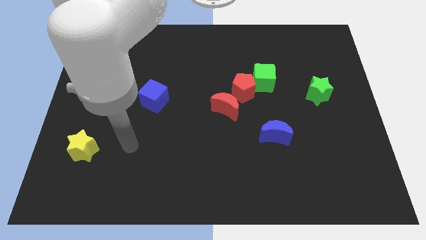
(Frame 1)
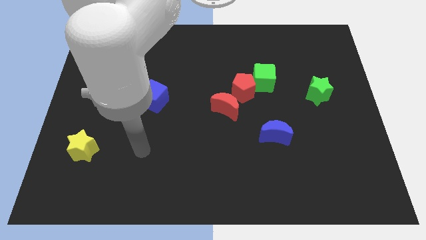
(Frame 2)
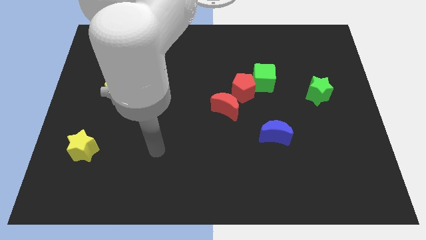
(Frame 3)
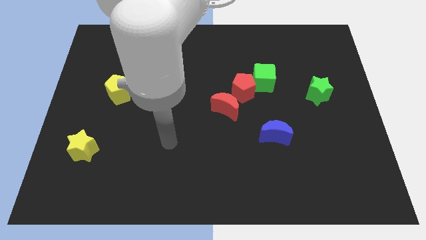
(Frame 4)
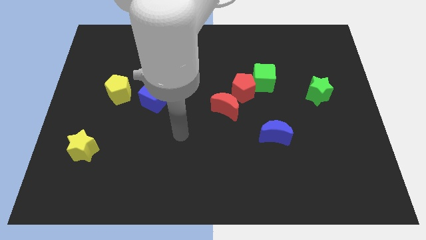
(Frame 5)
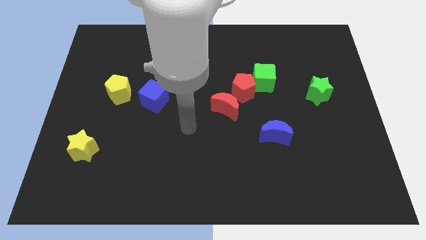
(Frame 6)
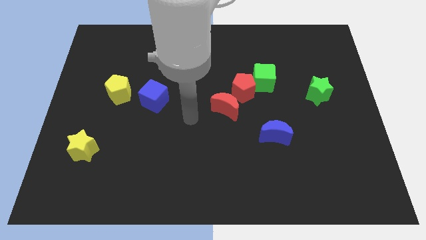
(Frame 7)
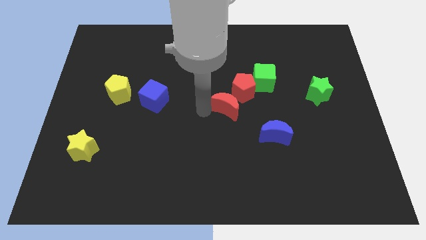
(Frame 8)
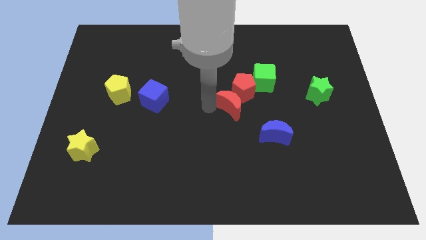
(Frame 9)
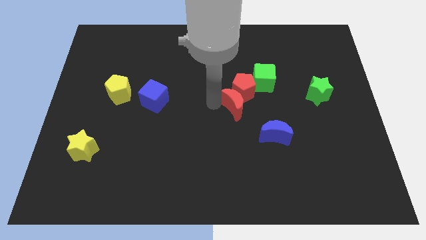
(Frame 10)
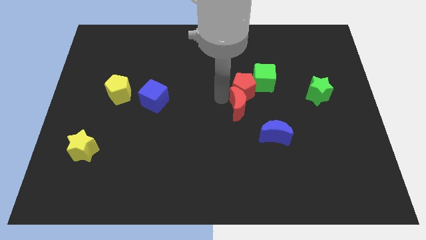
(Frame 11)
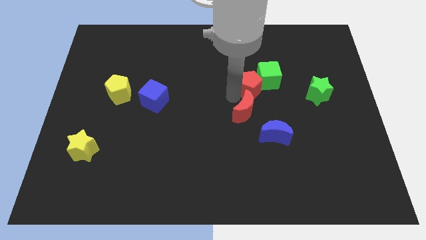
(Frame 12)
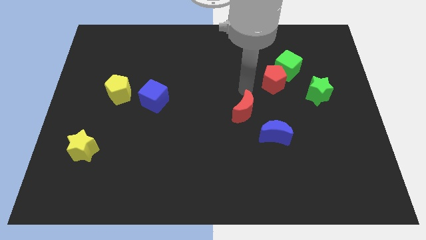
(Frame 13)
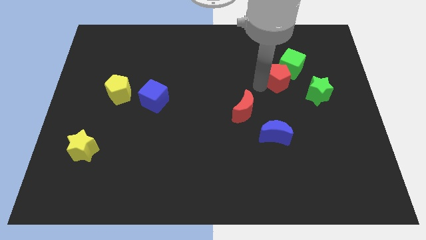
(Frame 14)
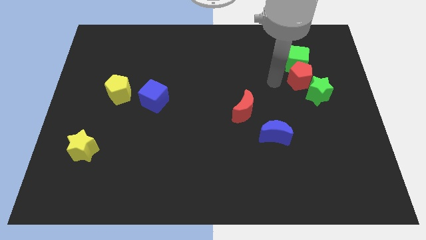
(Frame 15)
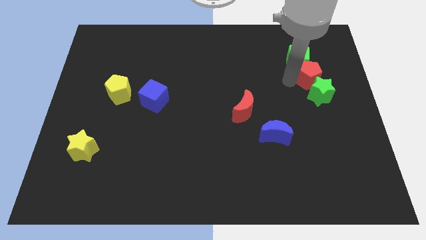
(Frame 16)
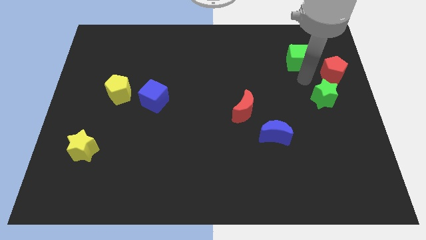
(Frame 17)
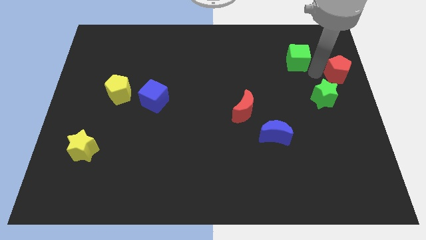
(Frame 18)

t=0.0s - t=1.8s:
separate the green cube from the red pentagon

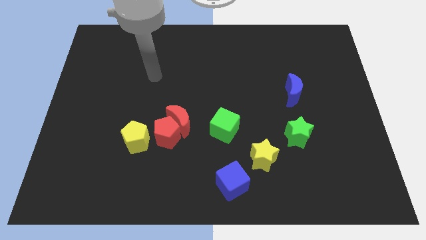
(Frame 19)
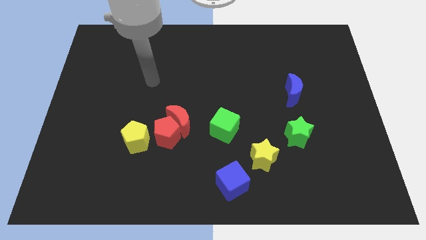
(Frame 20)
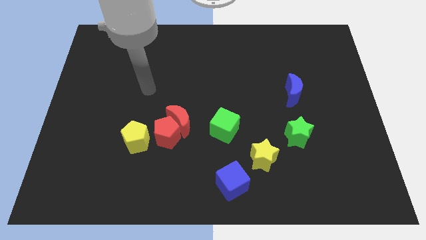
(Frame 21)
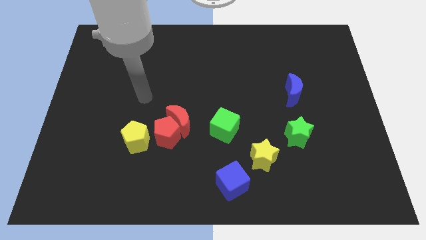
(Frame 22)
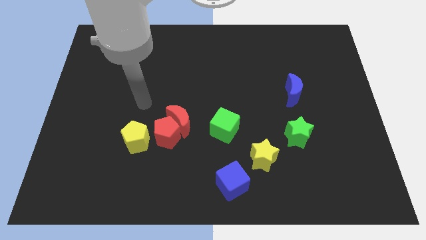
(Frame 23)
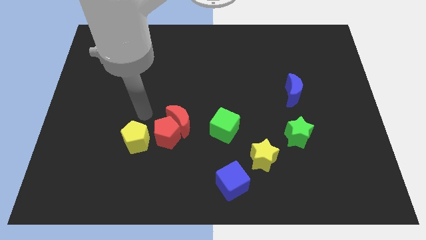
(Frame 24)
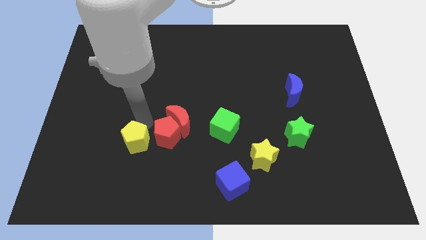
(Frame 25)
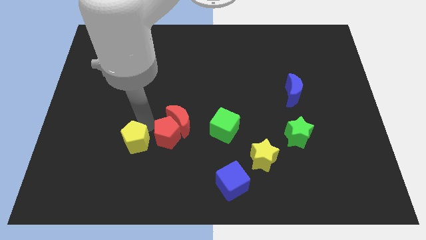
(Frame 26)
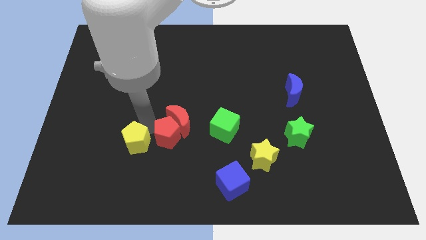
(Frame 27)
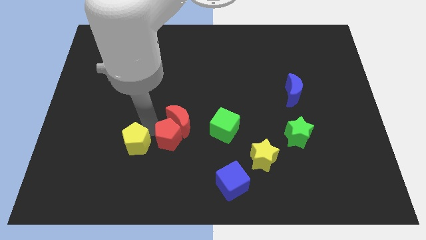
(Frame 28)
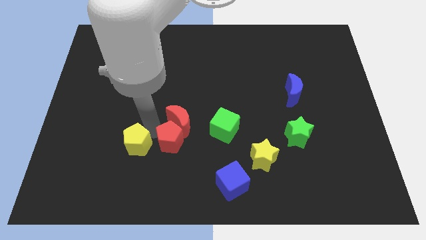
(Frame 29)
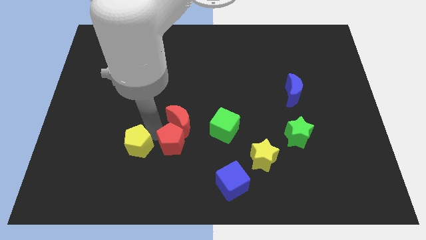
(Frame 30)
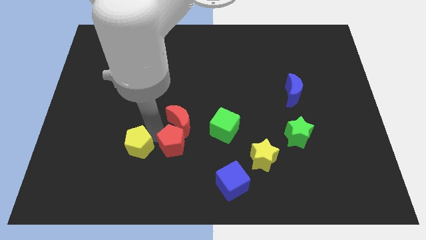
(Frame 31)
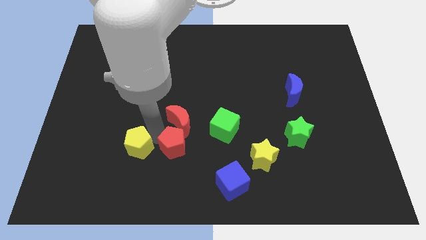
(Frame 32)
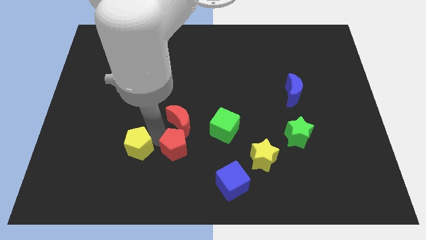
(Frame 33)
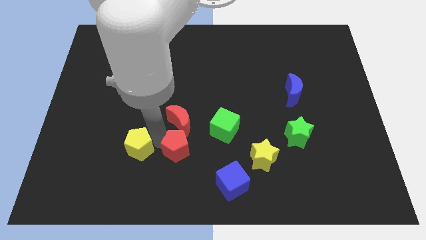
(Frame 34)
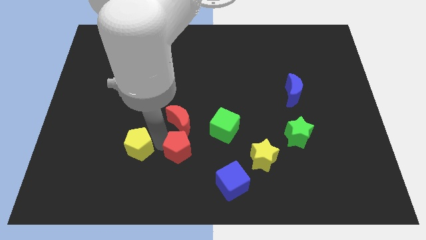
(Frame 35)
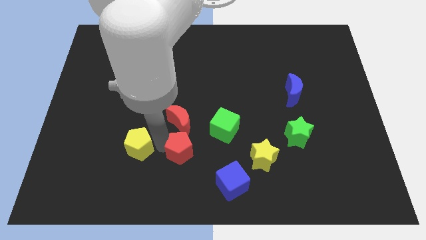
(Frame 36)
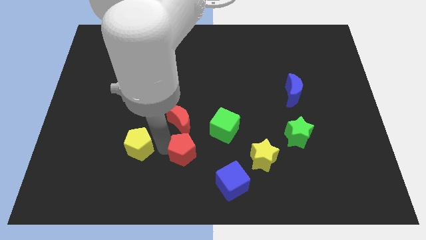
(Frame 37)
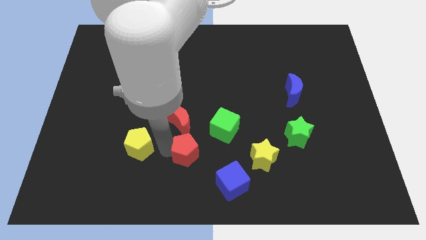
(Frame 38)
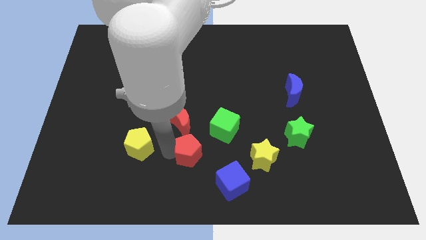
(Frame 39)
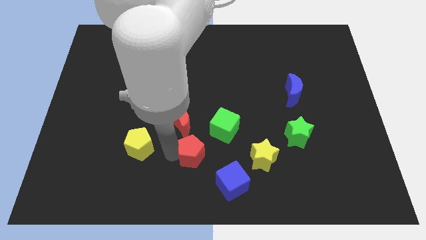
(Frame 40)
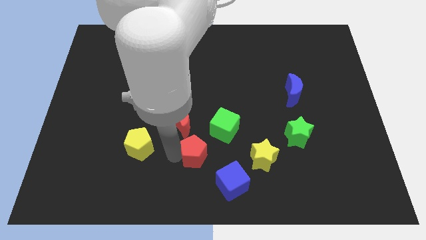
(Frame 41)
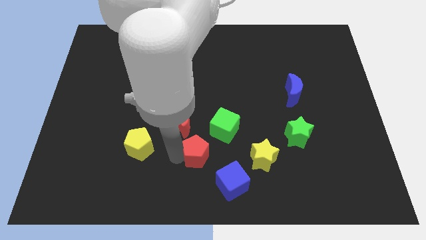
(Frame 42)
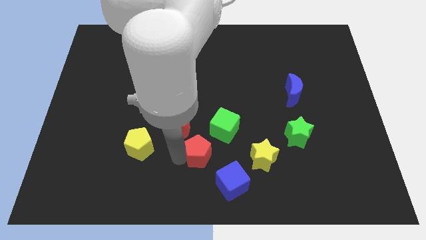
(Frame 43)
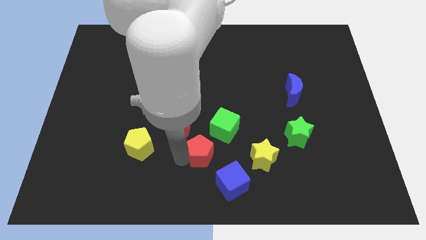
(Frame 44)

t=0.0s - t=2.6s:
move the red pentagon away from the red moon and yellow pentagon

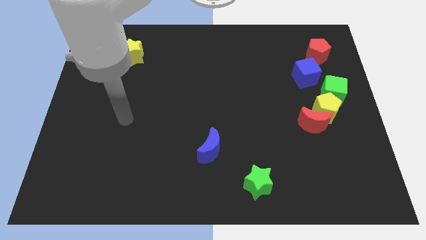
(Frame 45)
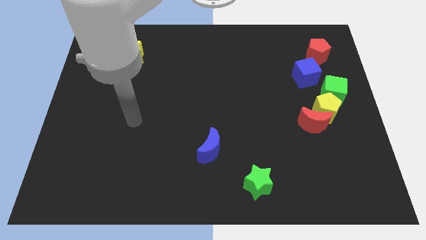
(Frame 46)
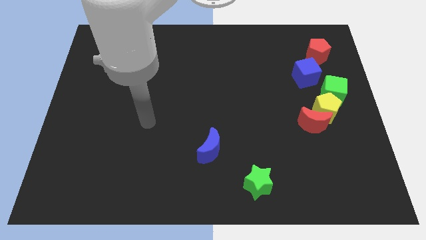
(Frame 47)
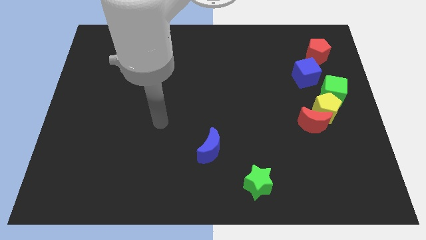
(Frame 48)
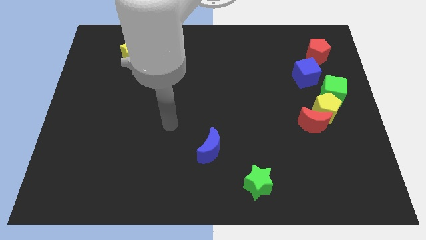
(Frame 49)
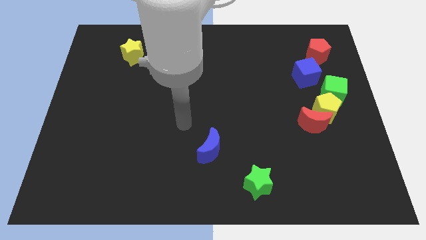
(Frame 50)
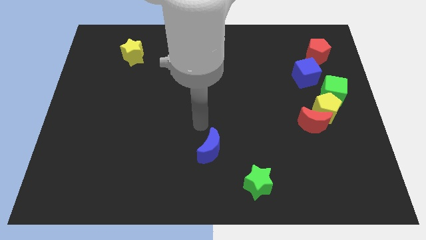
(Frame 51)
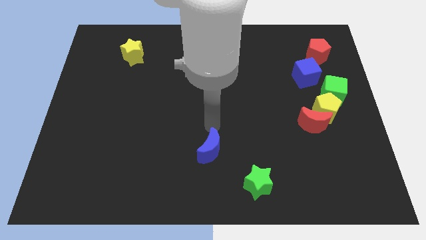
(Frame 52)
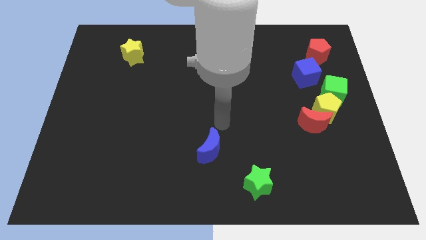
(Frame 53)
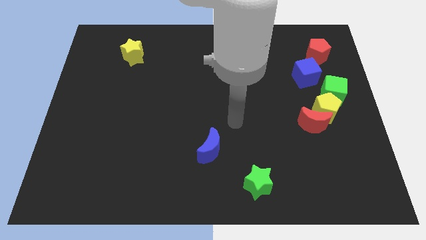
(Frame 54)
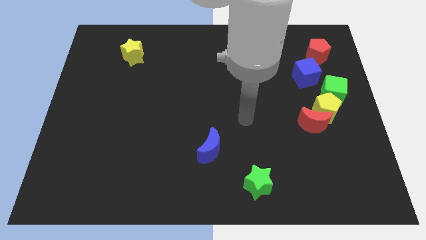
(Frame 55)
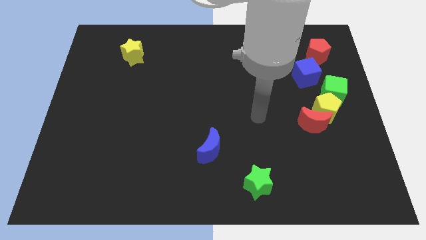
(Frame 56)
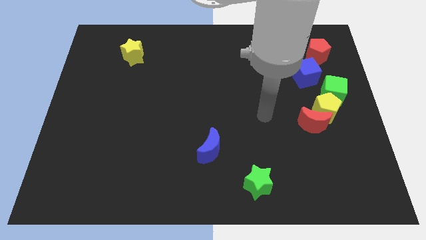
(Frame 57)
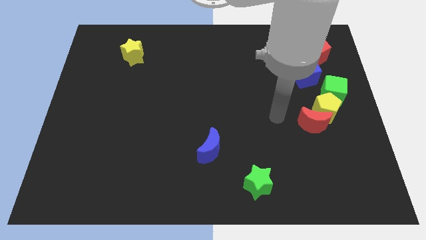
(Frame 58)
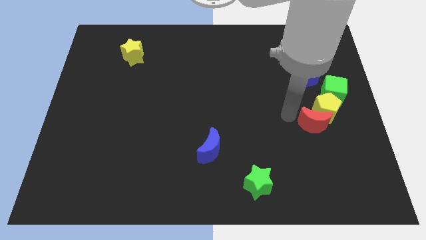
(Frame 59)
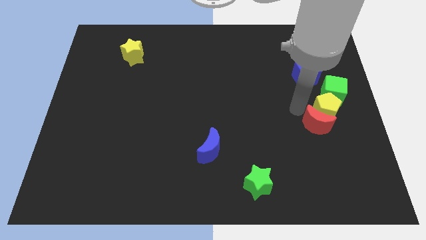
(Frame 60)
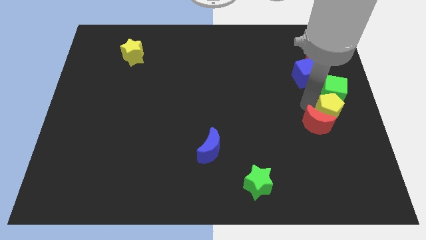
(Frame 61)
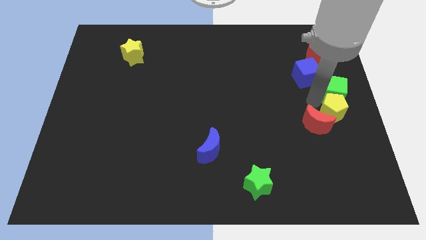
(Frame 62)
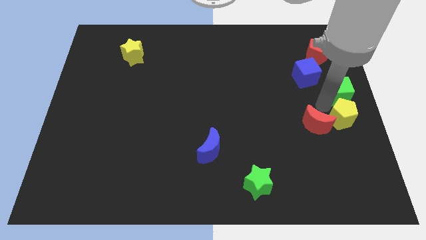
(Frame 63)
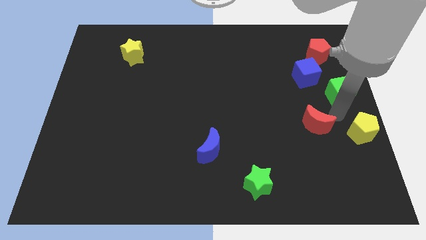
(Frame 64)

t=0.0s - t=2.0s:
pull the red moon apart from the yellow pentagon

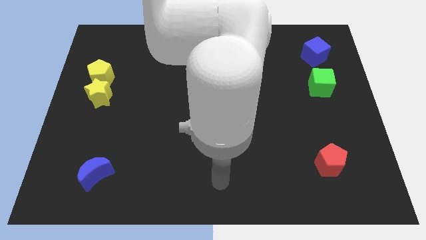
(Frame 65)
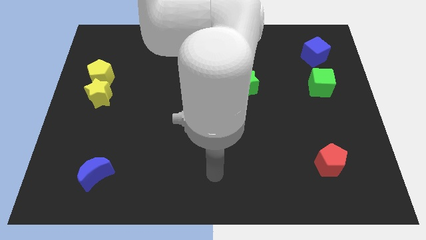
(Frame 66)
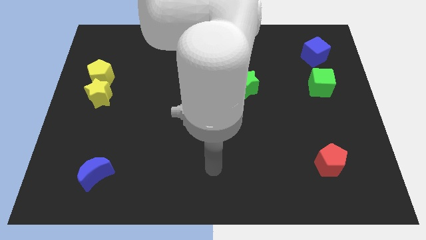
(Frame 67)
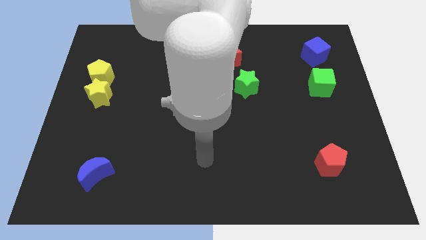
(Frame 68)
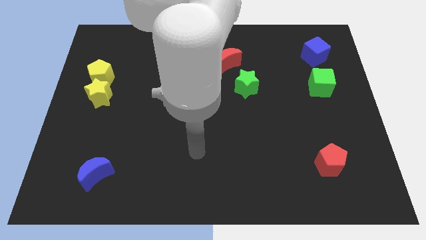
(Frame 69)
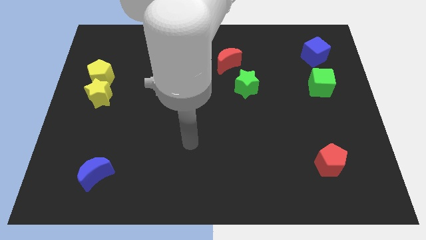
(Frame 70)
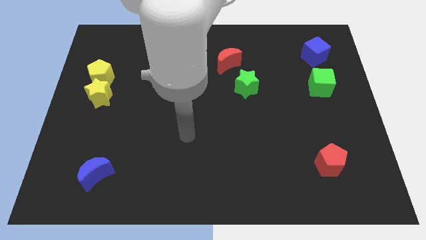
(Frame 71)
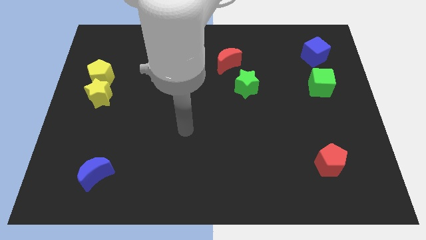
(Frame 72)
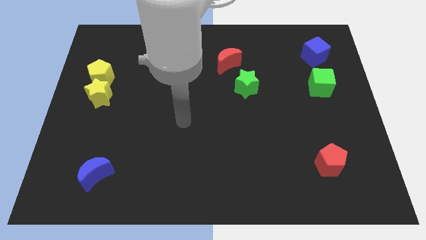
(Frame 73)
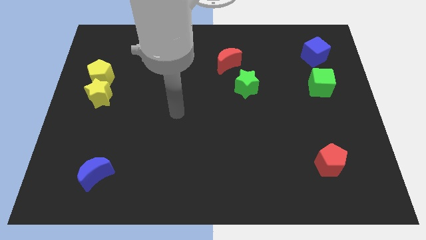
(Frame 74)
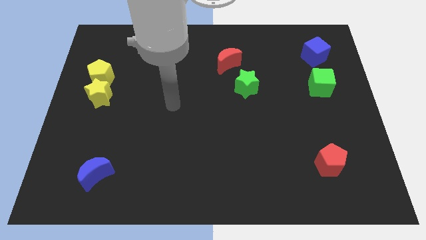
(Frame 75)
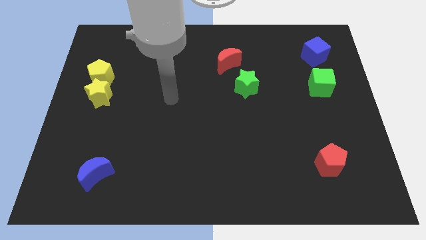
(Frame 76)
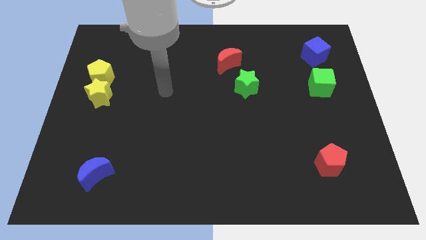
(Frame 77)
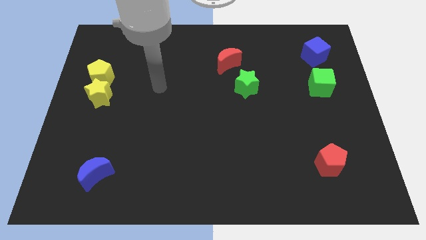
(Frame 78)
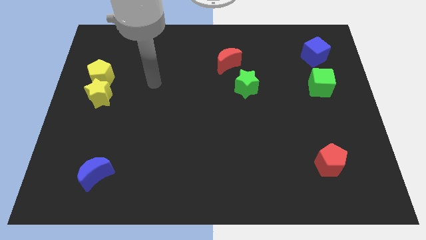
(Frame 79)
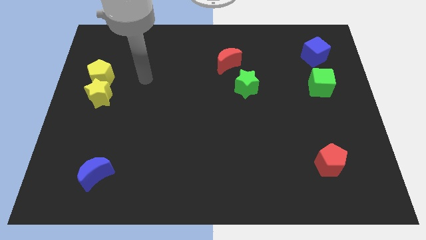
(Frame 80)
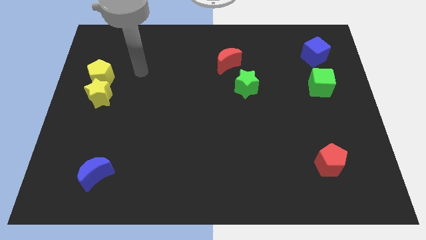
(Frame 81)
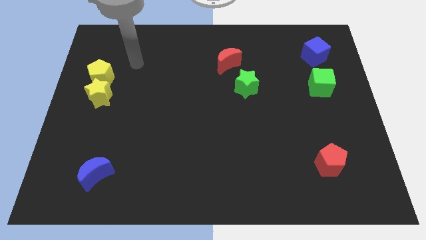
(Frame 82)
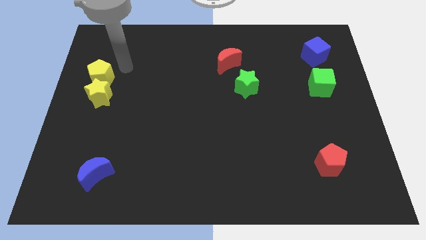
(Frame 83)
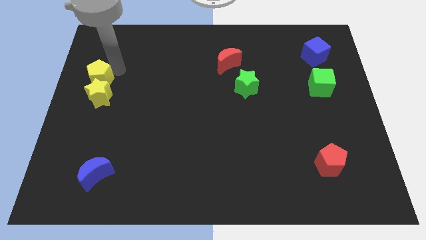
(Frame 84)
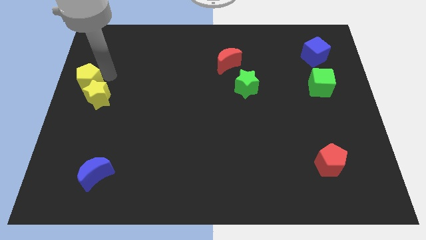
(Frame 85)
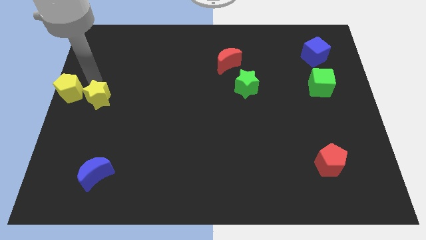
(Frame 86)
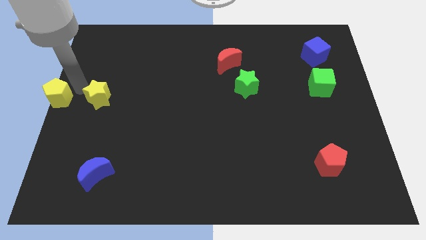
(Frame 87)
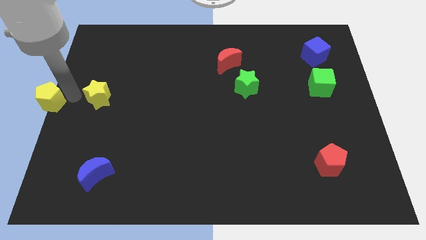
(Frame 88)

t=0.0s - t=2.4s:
pull the yellow star apart from the yellow pentagon

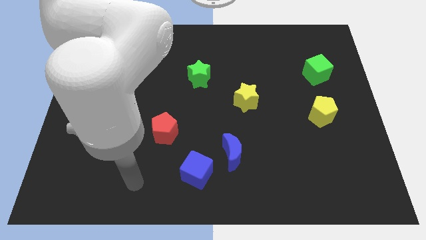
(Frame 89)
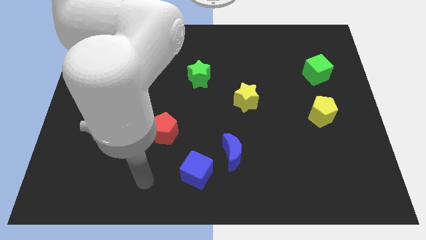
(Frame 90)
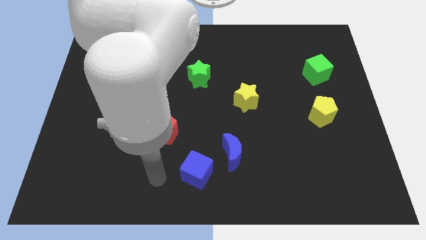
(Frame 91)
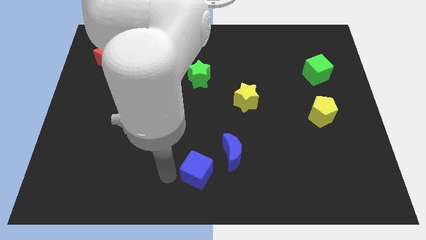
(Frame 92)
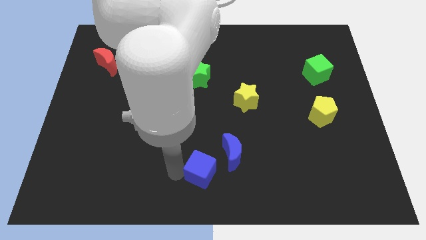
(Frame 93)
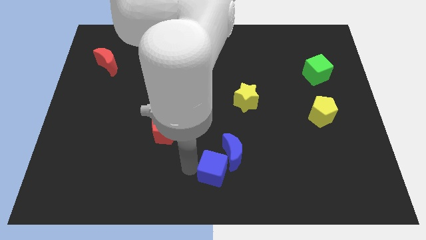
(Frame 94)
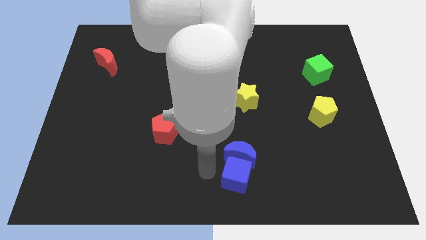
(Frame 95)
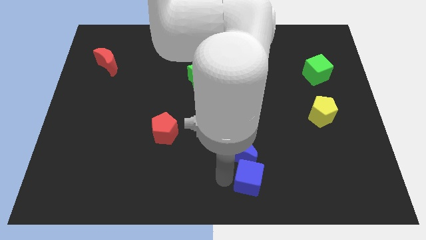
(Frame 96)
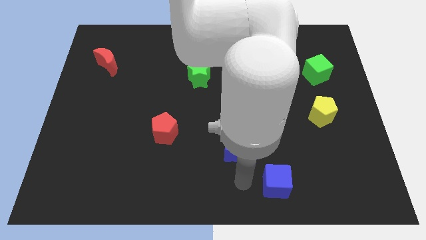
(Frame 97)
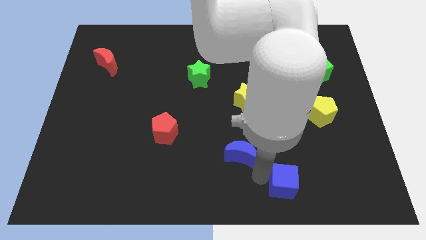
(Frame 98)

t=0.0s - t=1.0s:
pull the blue moon apart from the blue cube
